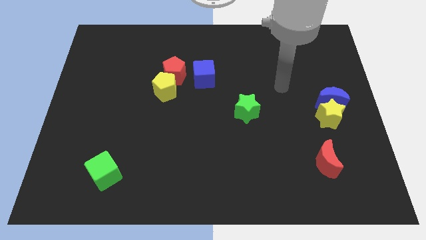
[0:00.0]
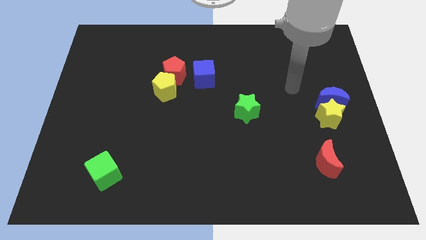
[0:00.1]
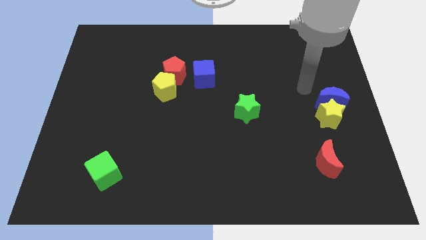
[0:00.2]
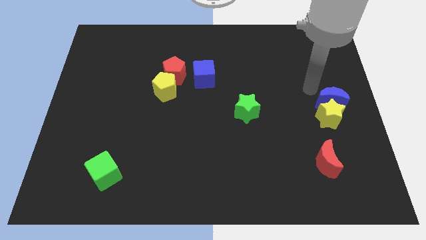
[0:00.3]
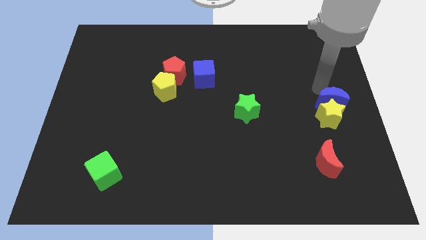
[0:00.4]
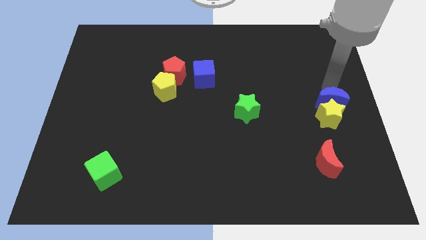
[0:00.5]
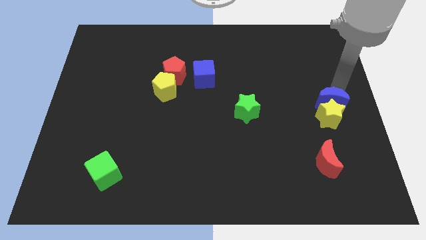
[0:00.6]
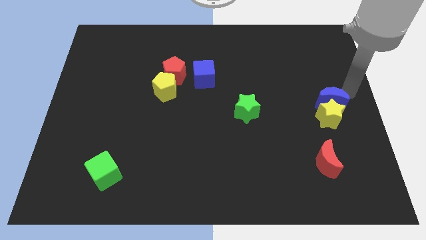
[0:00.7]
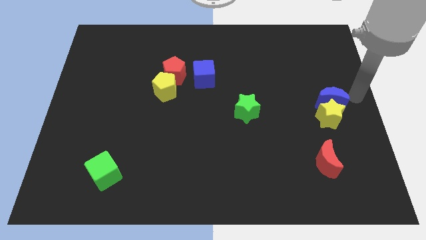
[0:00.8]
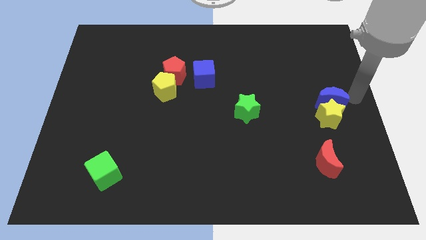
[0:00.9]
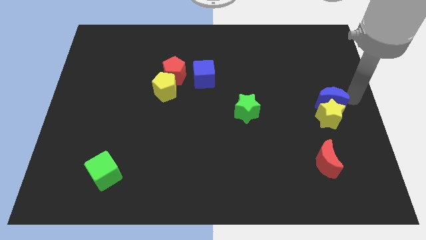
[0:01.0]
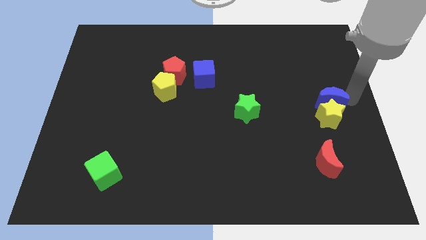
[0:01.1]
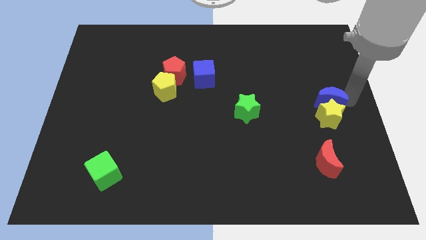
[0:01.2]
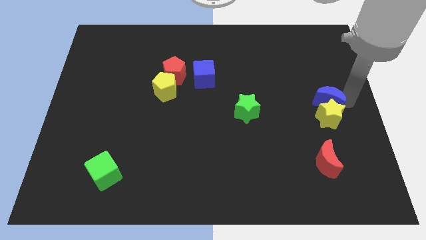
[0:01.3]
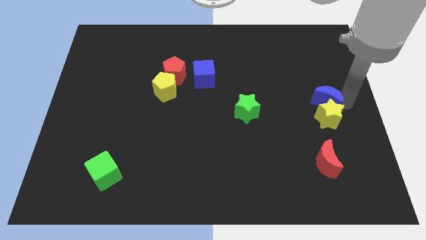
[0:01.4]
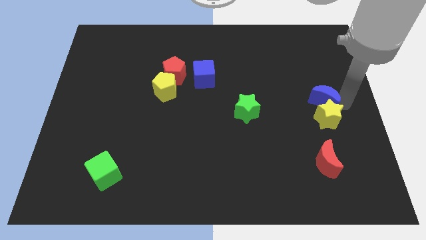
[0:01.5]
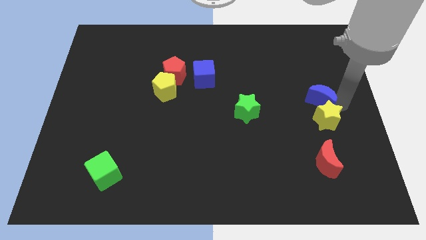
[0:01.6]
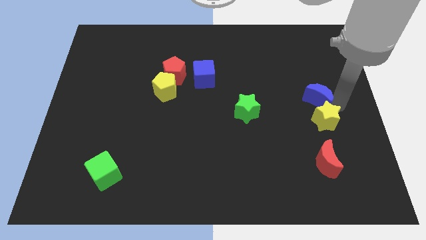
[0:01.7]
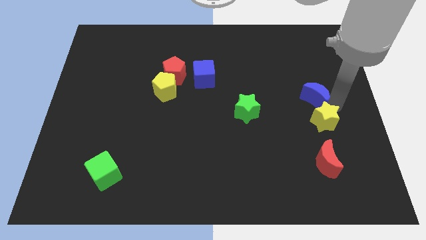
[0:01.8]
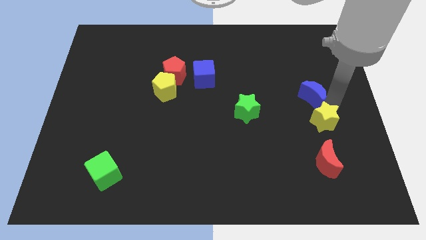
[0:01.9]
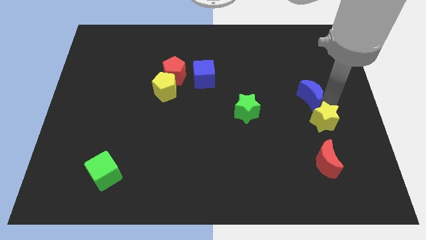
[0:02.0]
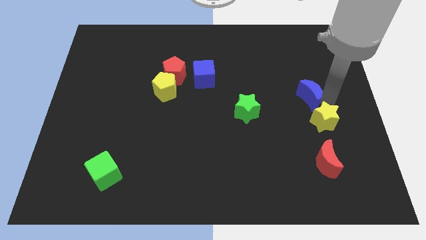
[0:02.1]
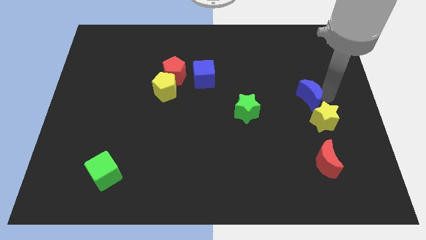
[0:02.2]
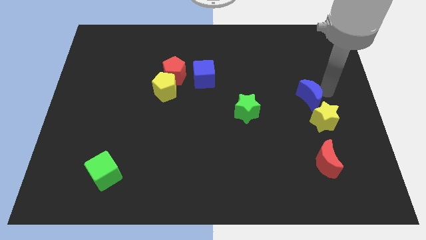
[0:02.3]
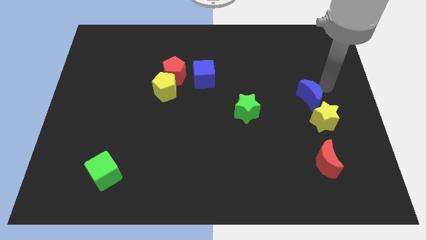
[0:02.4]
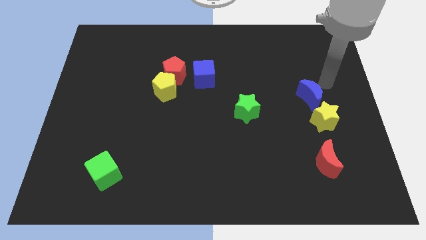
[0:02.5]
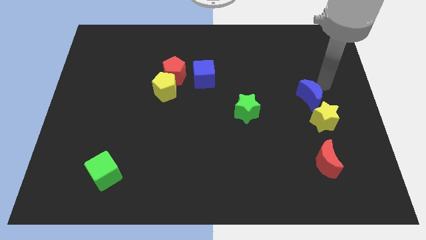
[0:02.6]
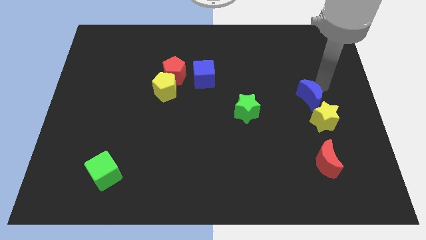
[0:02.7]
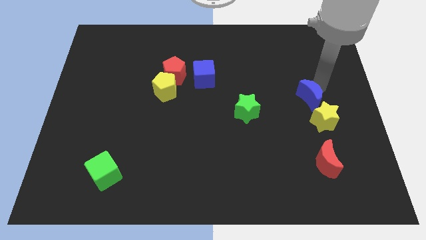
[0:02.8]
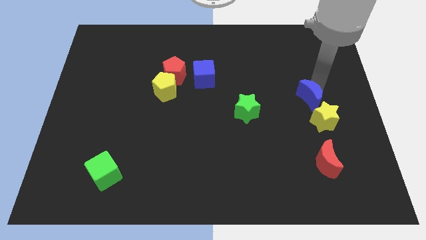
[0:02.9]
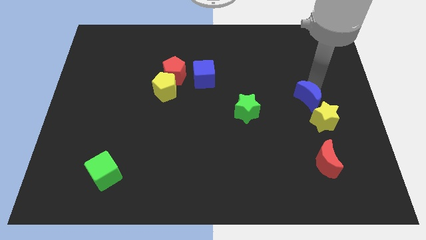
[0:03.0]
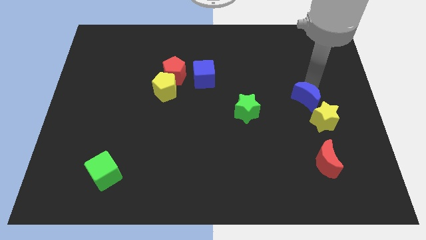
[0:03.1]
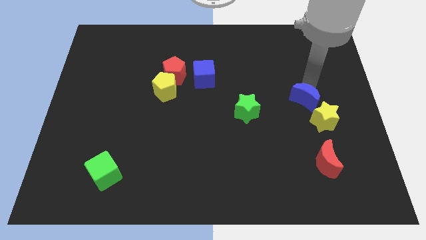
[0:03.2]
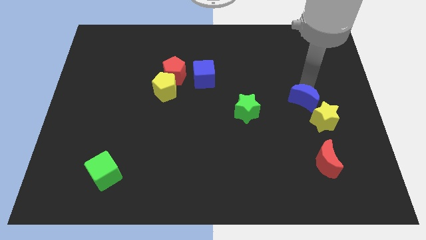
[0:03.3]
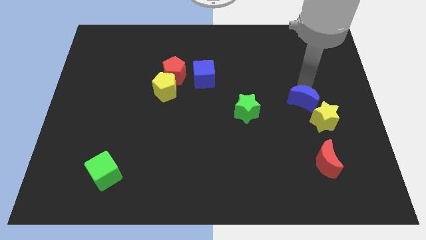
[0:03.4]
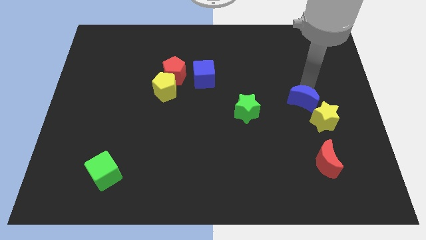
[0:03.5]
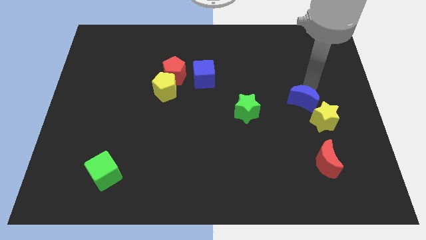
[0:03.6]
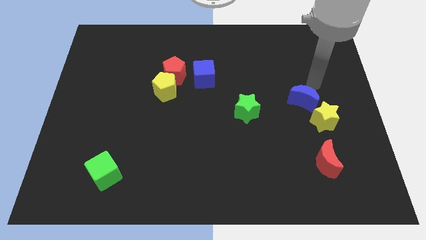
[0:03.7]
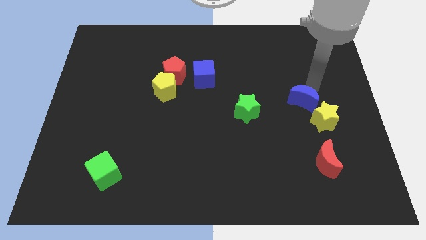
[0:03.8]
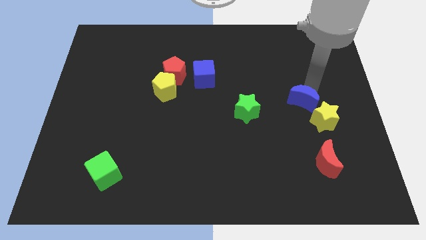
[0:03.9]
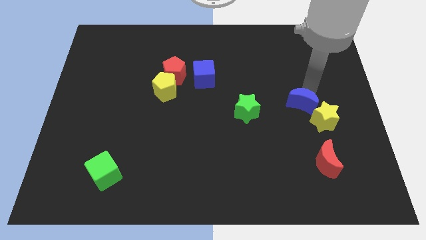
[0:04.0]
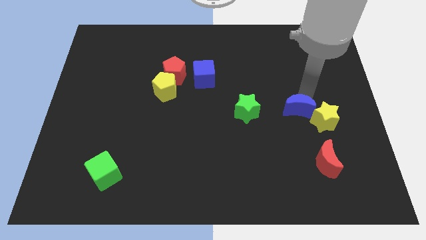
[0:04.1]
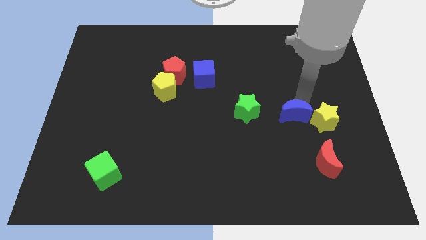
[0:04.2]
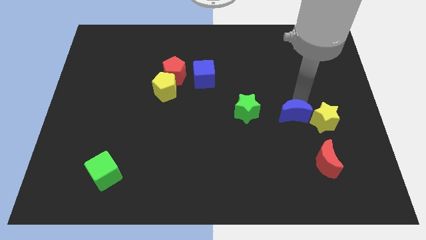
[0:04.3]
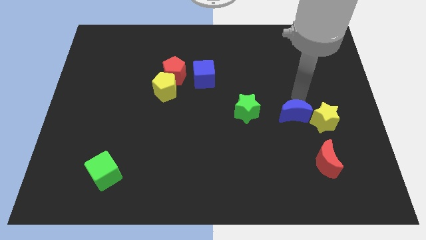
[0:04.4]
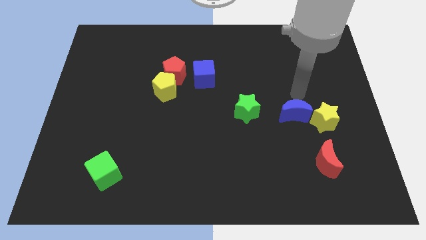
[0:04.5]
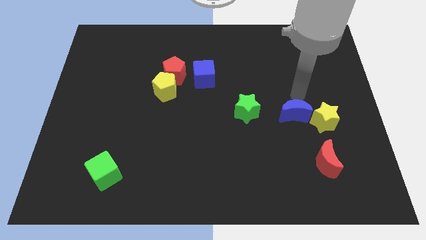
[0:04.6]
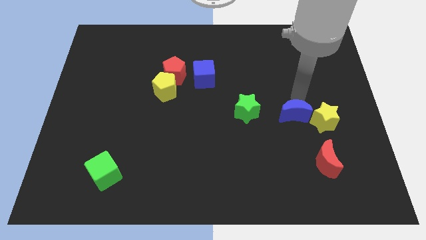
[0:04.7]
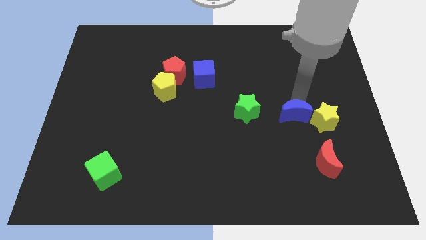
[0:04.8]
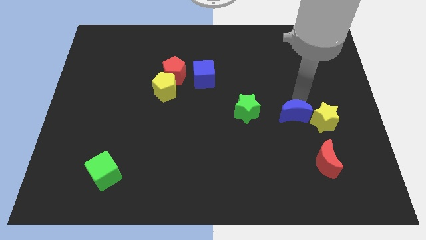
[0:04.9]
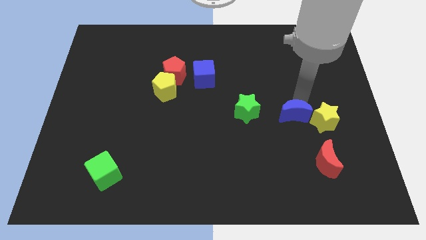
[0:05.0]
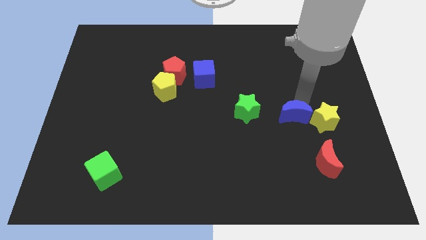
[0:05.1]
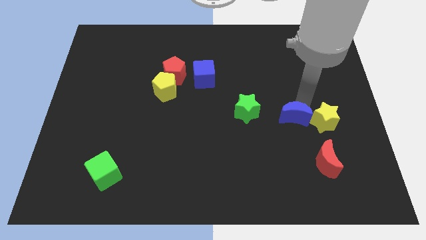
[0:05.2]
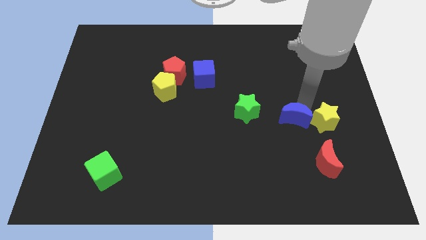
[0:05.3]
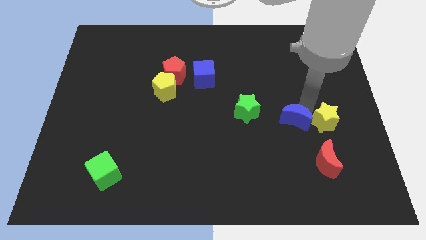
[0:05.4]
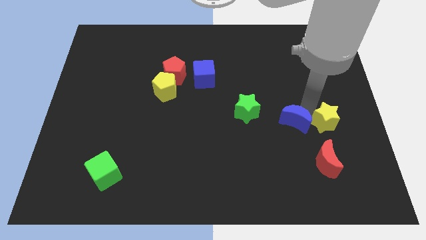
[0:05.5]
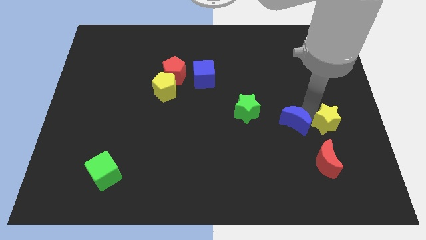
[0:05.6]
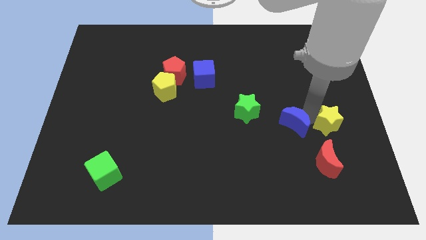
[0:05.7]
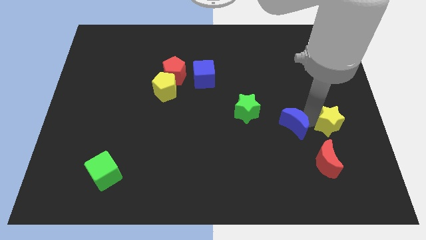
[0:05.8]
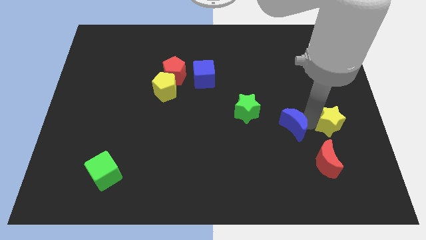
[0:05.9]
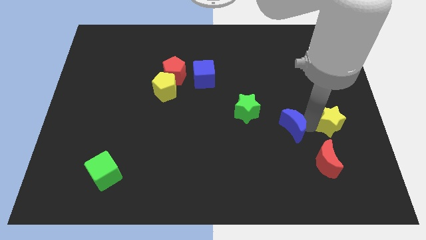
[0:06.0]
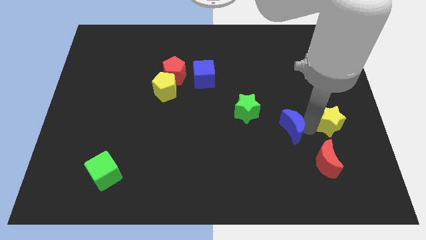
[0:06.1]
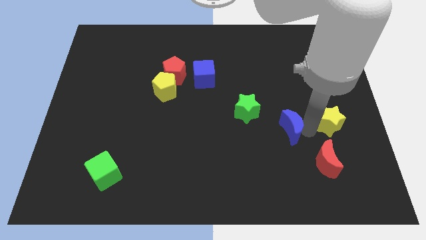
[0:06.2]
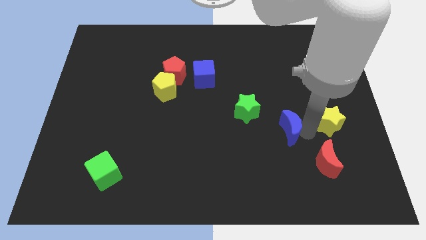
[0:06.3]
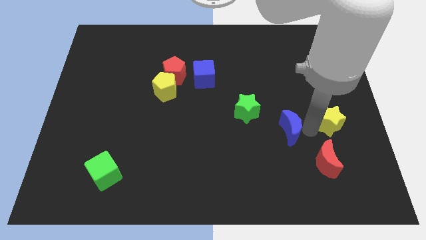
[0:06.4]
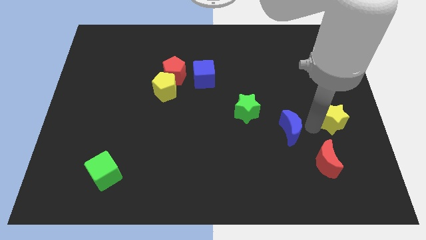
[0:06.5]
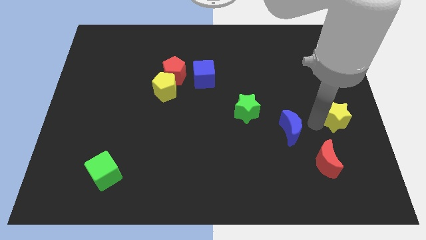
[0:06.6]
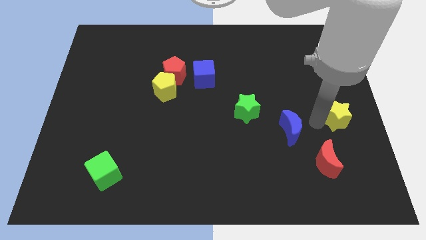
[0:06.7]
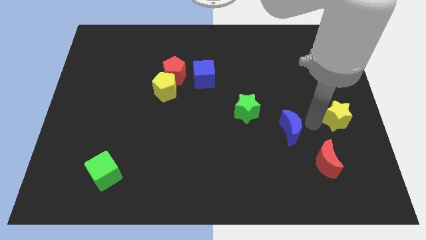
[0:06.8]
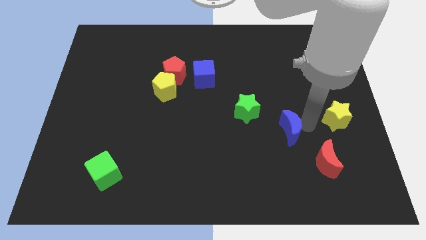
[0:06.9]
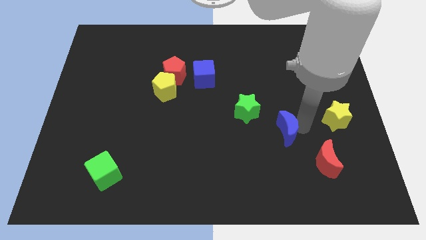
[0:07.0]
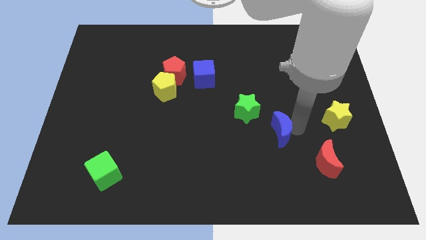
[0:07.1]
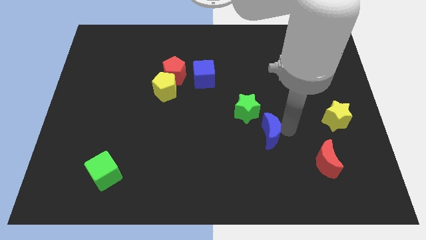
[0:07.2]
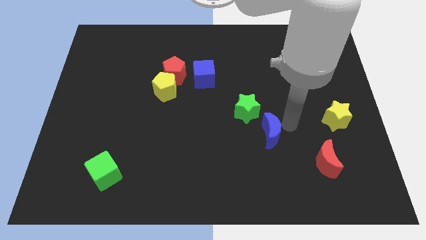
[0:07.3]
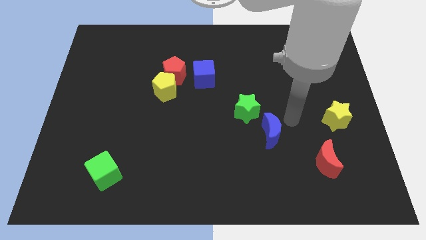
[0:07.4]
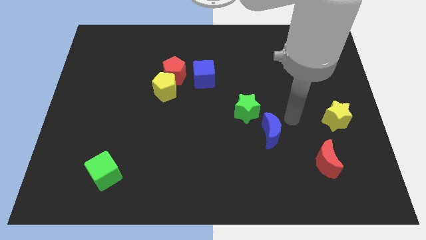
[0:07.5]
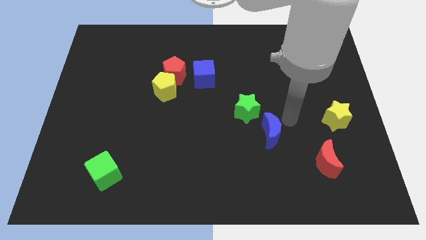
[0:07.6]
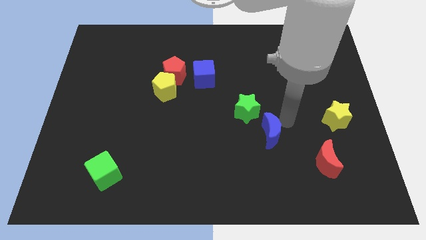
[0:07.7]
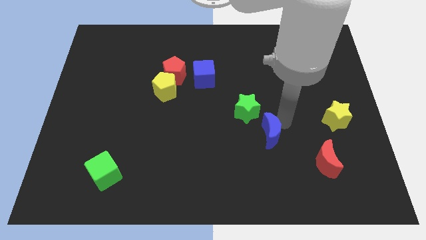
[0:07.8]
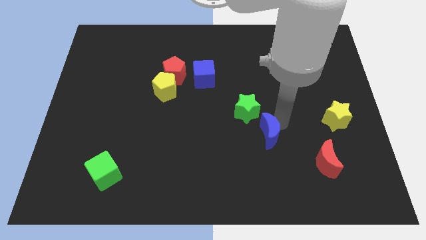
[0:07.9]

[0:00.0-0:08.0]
put the blue moon to the bottom side of the green star
